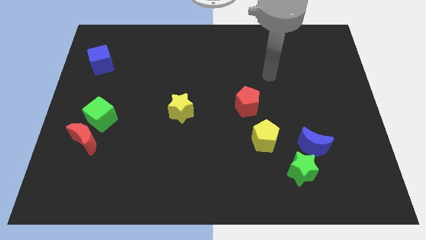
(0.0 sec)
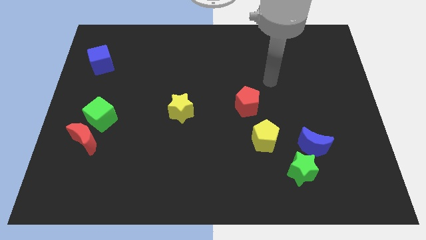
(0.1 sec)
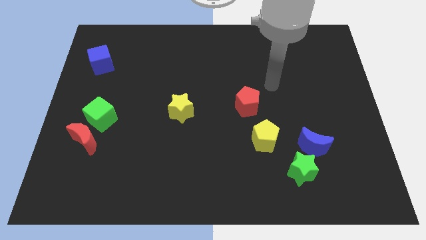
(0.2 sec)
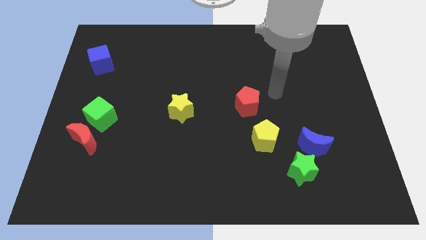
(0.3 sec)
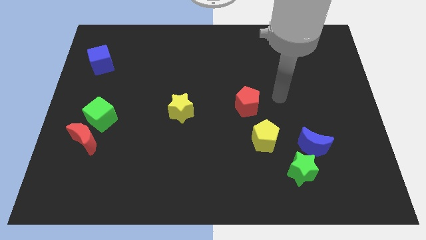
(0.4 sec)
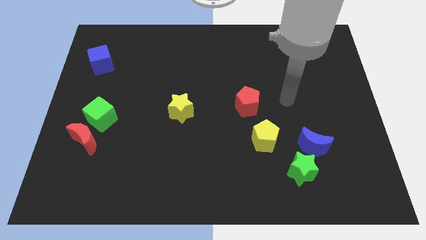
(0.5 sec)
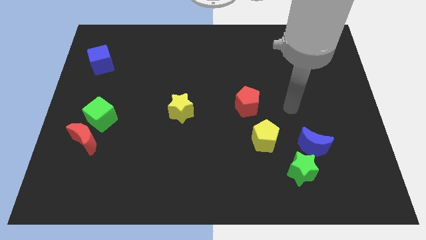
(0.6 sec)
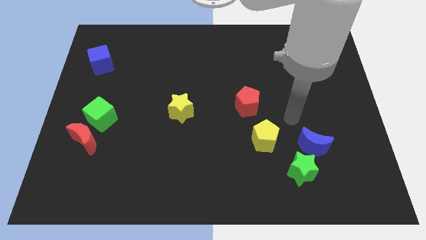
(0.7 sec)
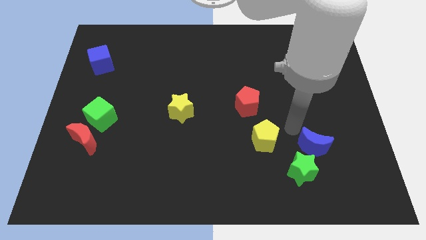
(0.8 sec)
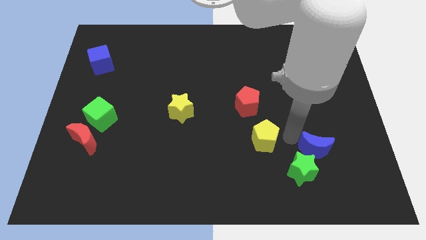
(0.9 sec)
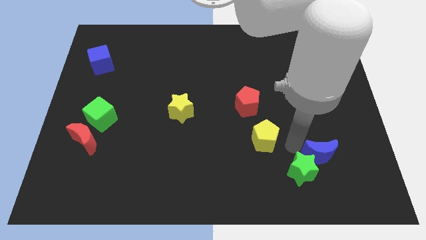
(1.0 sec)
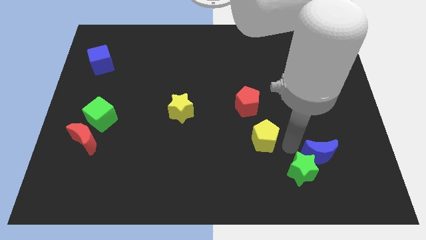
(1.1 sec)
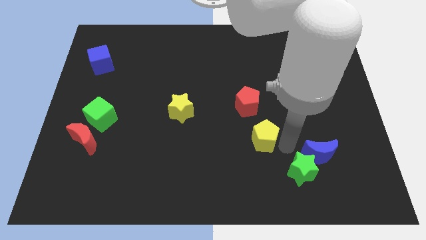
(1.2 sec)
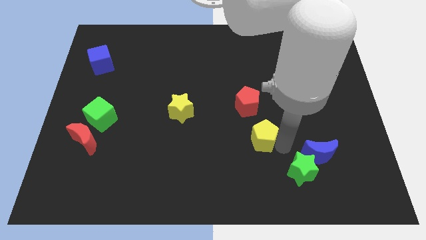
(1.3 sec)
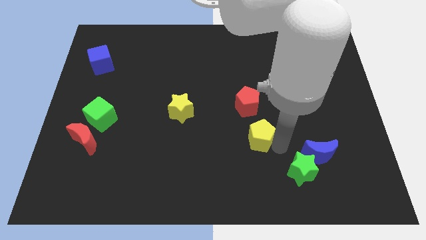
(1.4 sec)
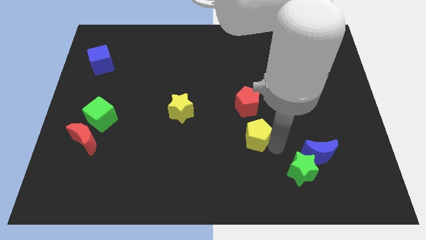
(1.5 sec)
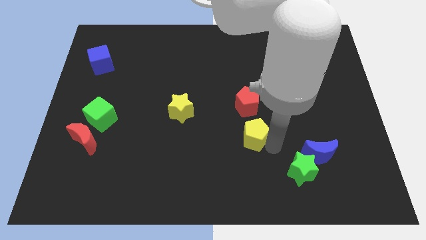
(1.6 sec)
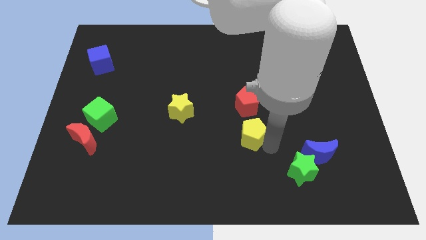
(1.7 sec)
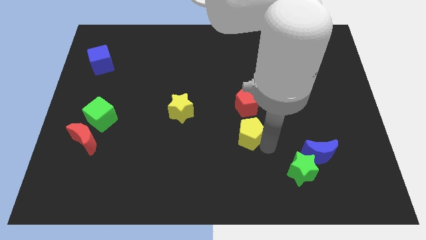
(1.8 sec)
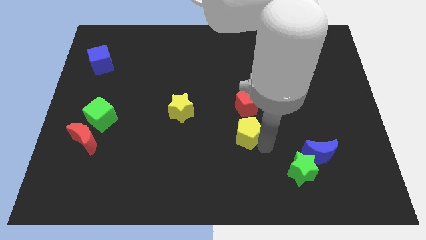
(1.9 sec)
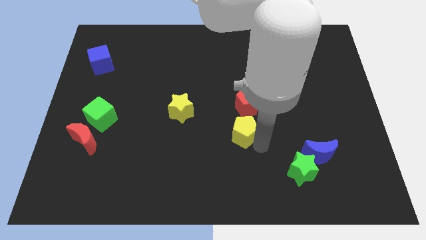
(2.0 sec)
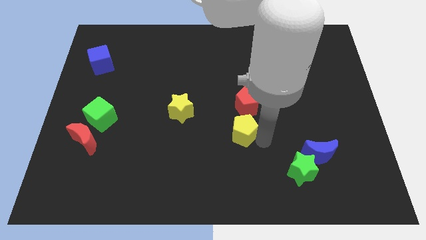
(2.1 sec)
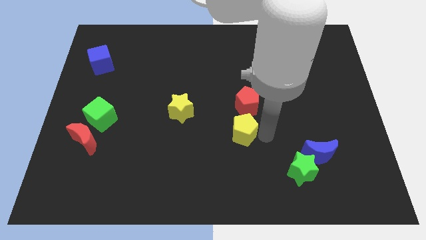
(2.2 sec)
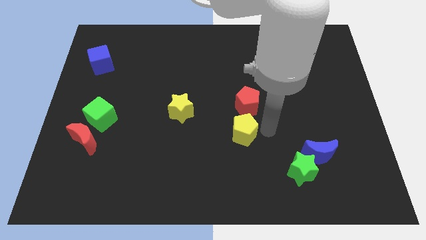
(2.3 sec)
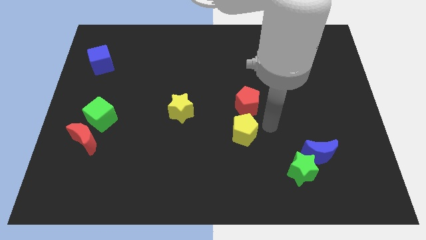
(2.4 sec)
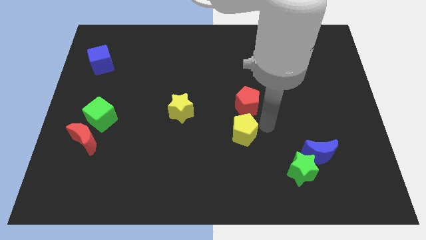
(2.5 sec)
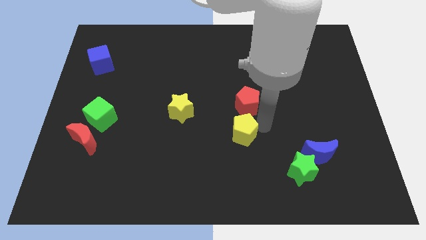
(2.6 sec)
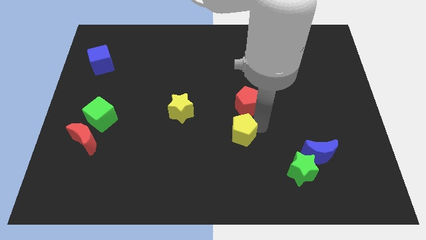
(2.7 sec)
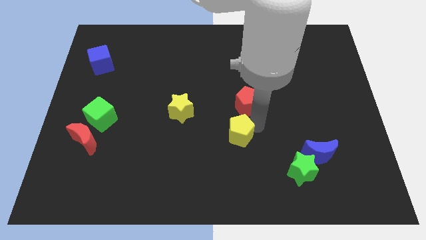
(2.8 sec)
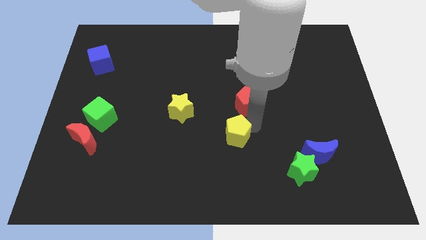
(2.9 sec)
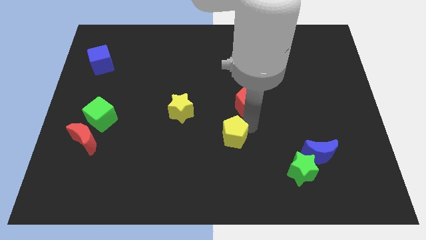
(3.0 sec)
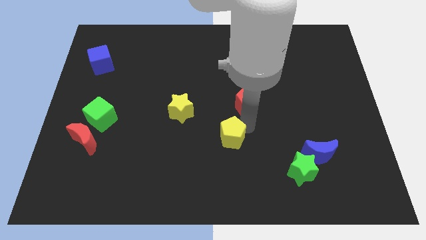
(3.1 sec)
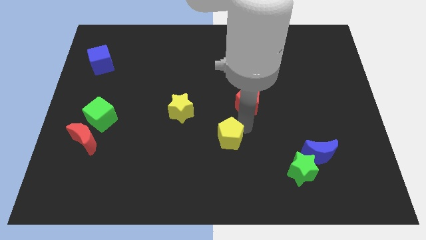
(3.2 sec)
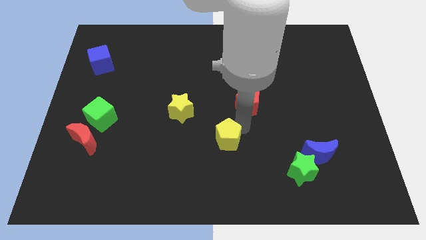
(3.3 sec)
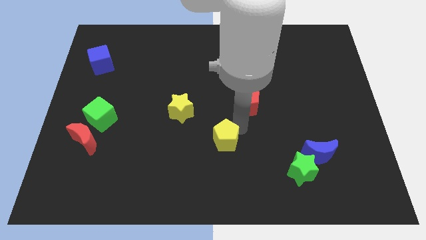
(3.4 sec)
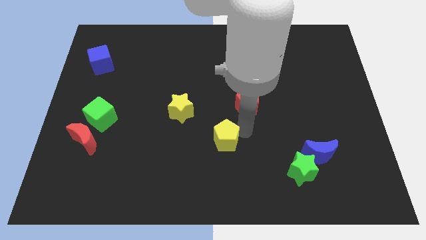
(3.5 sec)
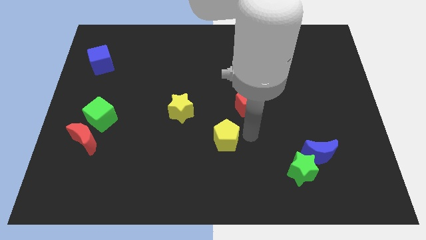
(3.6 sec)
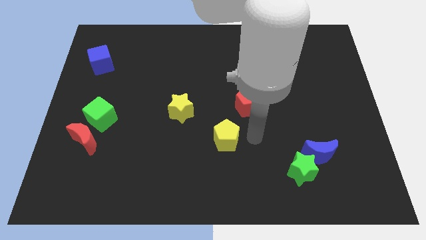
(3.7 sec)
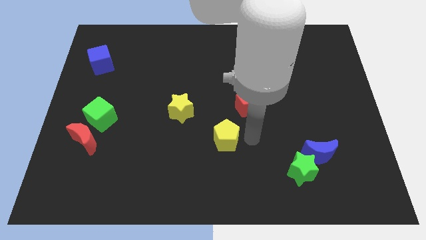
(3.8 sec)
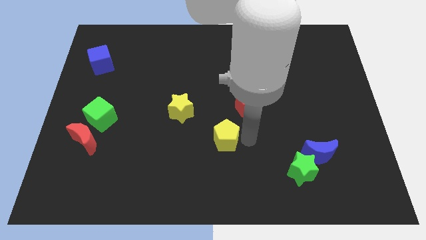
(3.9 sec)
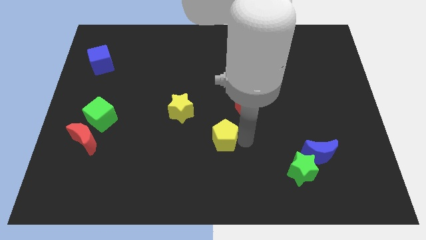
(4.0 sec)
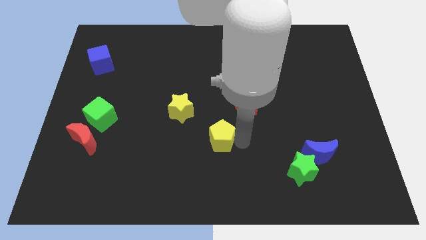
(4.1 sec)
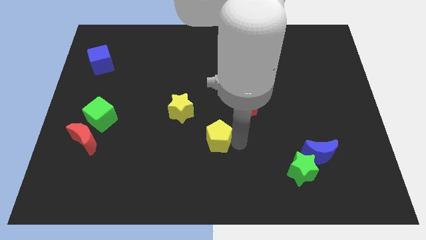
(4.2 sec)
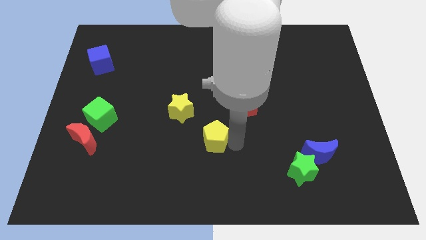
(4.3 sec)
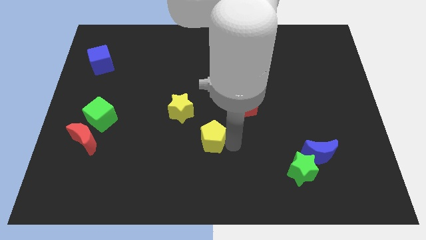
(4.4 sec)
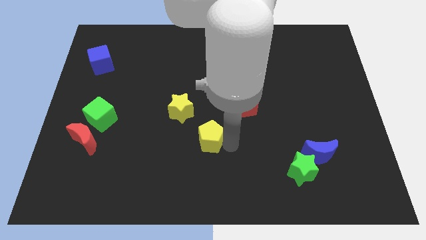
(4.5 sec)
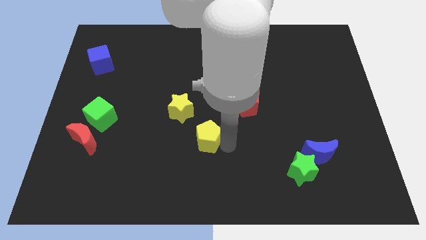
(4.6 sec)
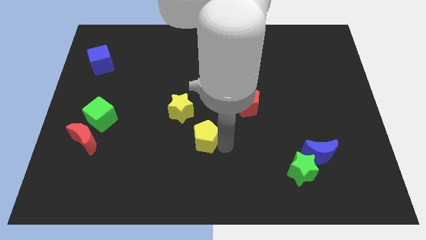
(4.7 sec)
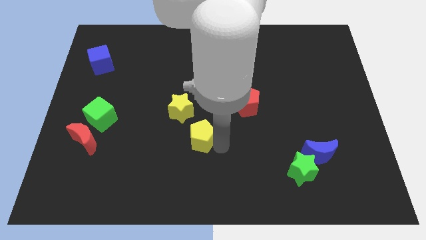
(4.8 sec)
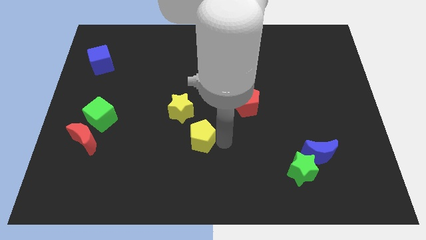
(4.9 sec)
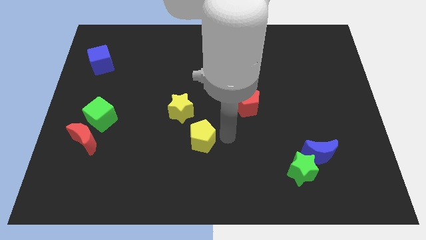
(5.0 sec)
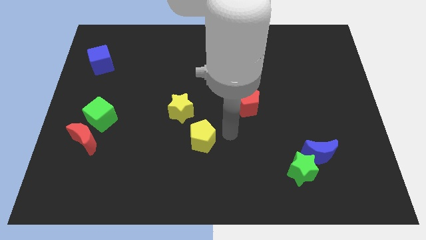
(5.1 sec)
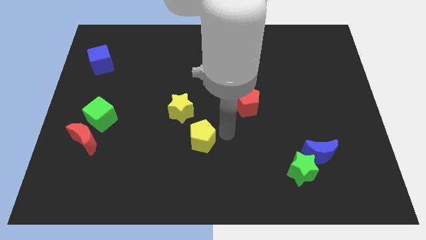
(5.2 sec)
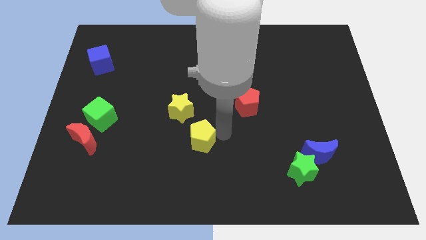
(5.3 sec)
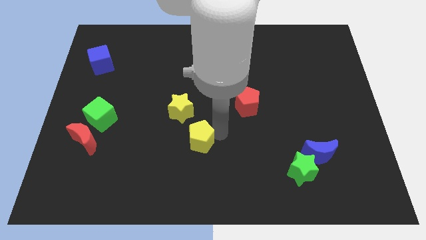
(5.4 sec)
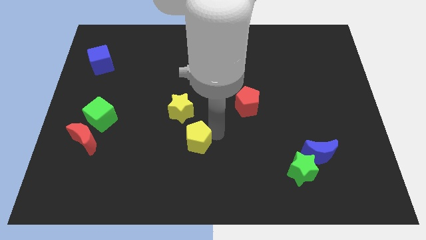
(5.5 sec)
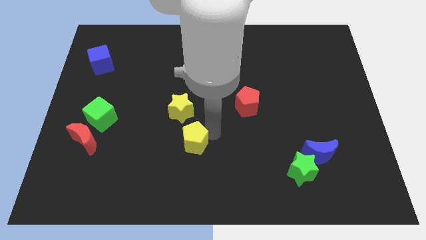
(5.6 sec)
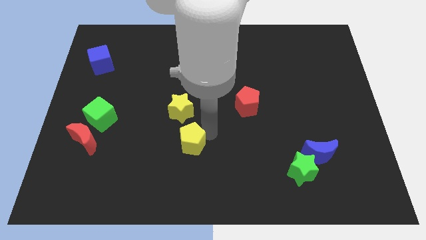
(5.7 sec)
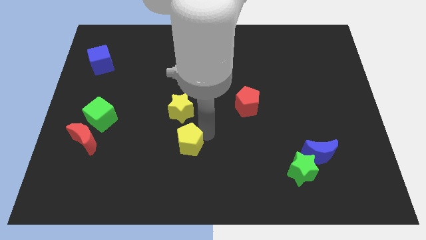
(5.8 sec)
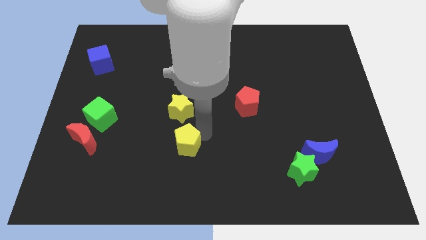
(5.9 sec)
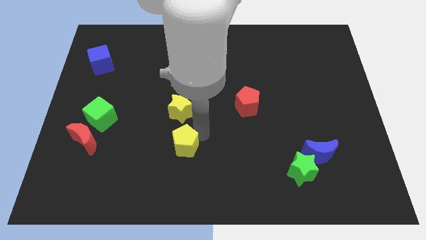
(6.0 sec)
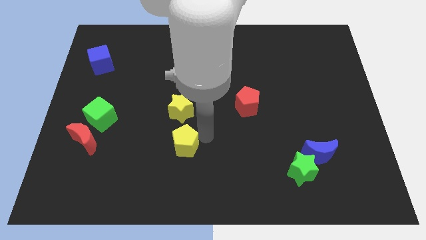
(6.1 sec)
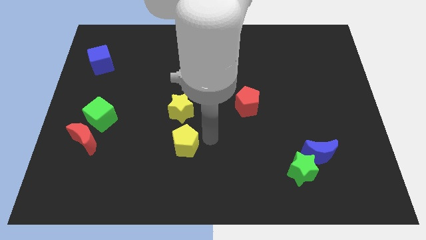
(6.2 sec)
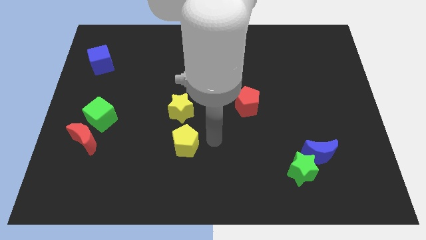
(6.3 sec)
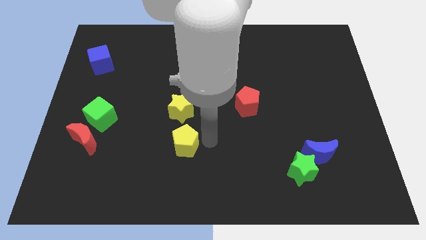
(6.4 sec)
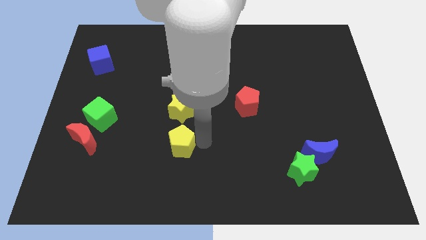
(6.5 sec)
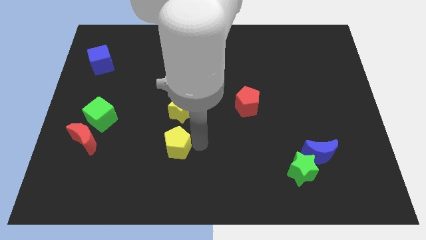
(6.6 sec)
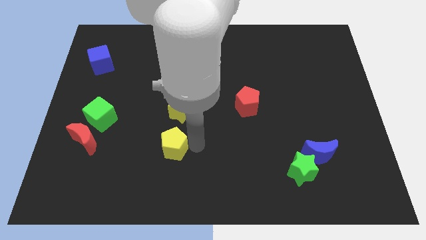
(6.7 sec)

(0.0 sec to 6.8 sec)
push the yellow pentagon to the left

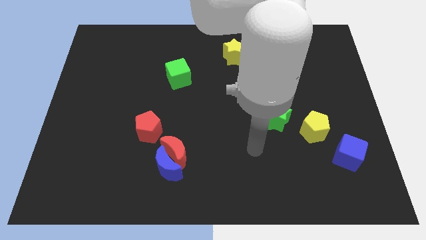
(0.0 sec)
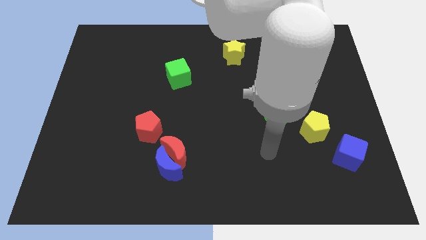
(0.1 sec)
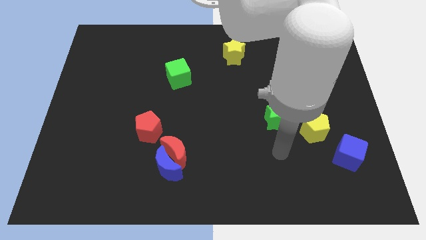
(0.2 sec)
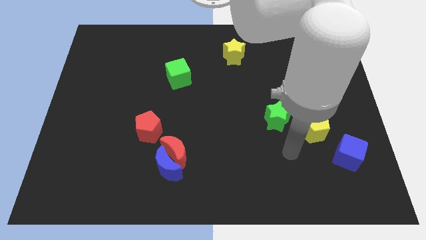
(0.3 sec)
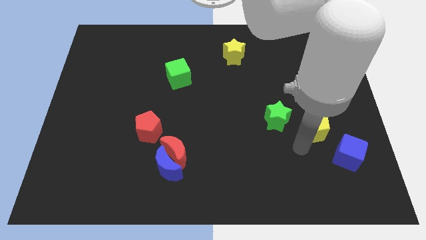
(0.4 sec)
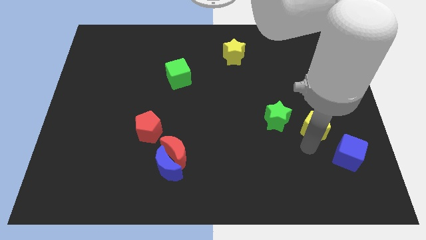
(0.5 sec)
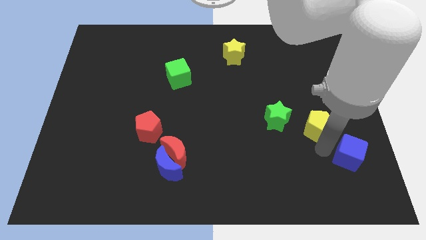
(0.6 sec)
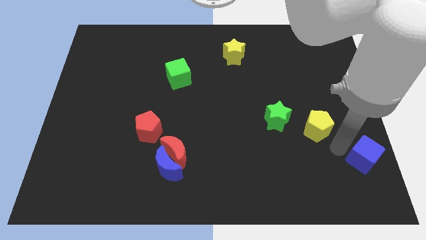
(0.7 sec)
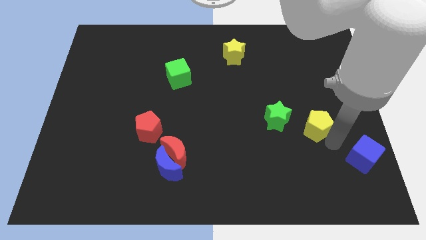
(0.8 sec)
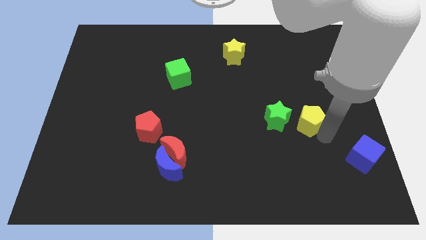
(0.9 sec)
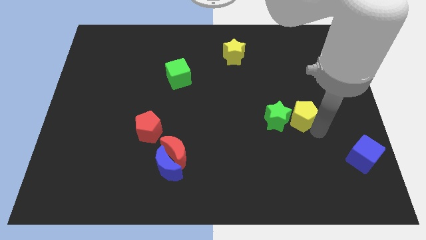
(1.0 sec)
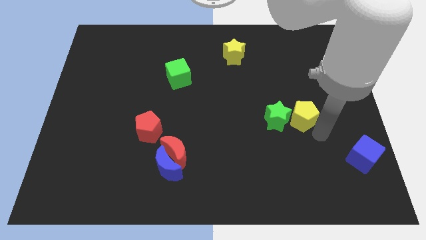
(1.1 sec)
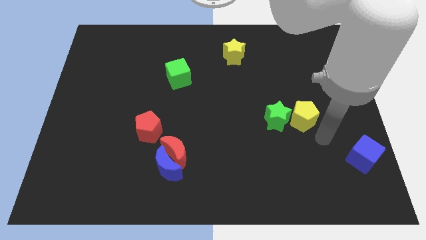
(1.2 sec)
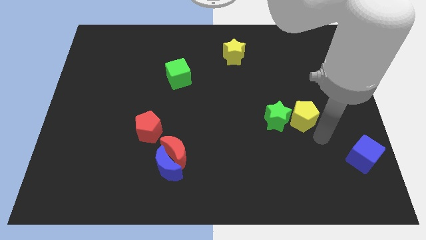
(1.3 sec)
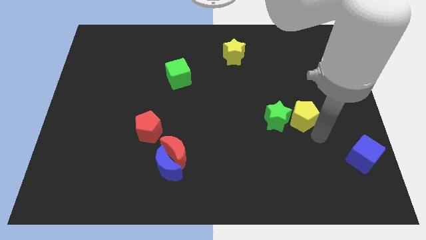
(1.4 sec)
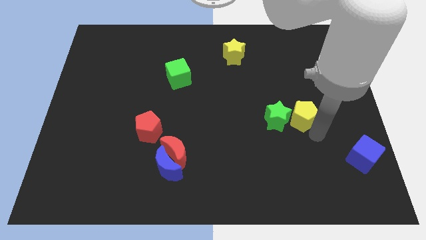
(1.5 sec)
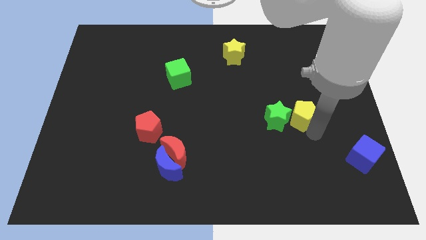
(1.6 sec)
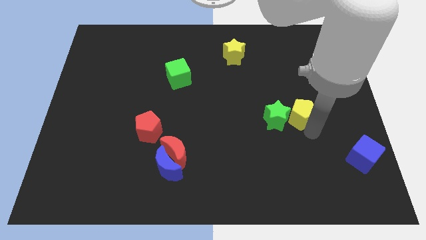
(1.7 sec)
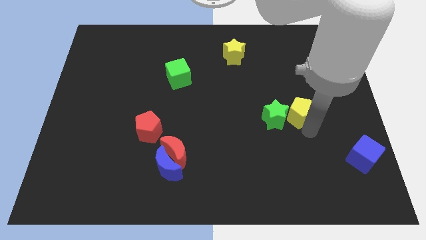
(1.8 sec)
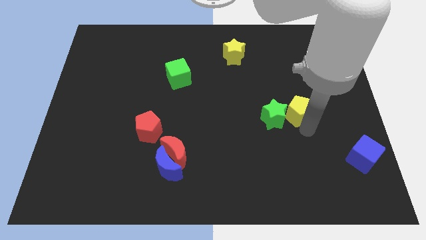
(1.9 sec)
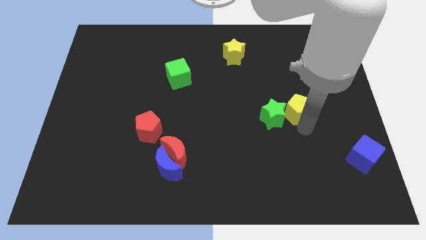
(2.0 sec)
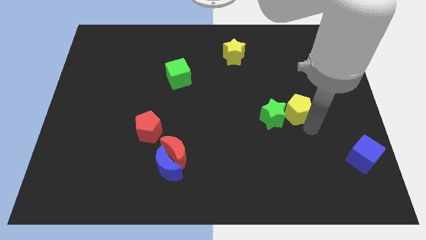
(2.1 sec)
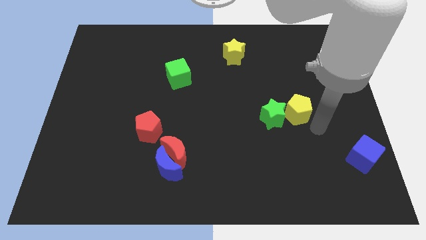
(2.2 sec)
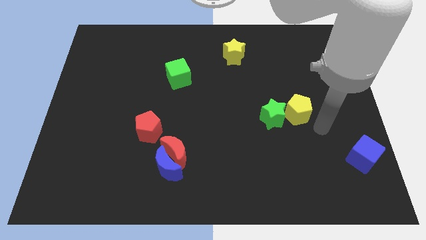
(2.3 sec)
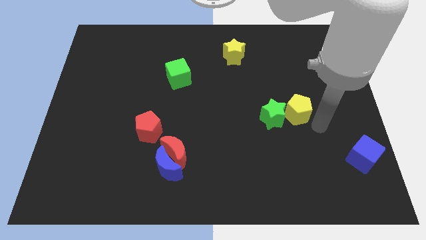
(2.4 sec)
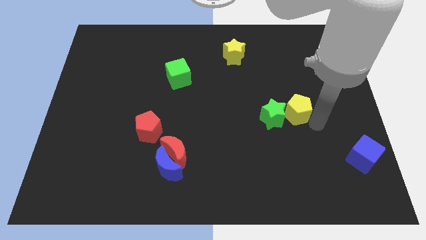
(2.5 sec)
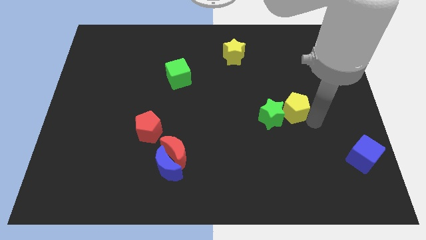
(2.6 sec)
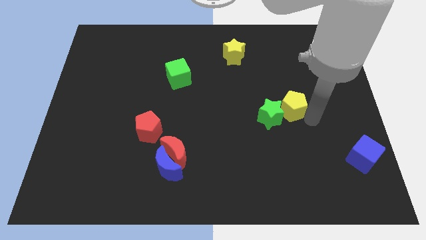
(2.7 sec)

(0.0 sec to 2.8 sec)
slide the yellow pentagon a little upwards and left diagonally
